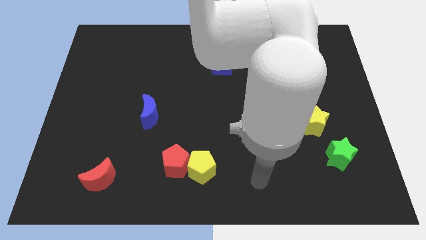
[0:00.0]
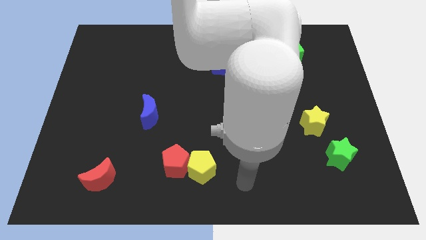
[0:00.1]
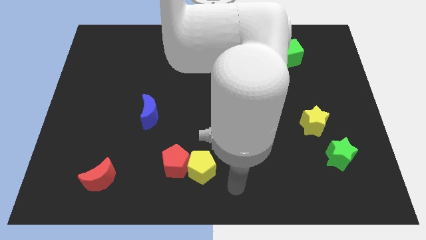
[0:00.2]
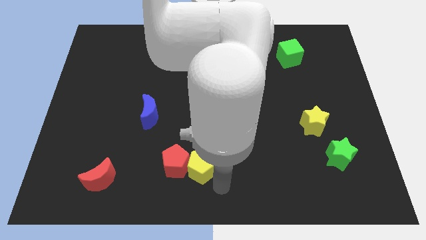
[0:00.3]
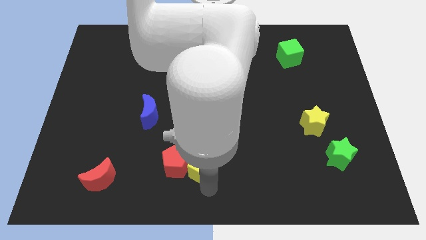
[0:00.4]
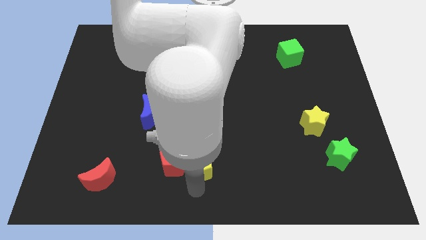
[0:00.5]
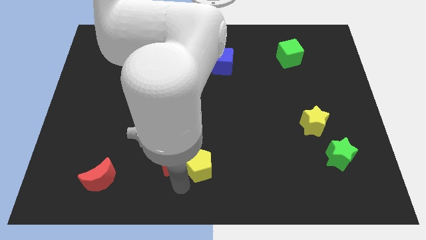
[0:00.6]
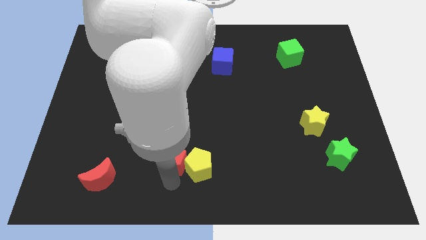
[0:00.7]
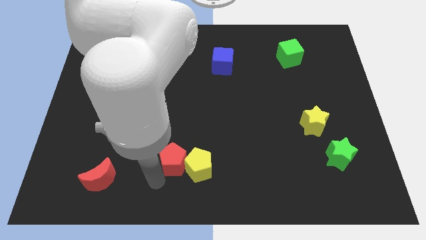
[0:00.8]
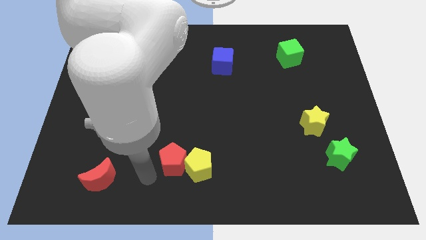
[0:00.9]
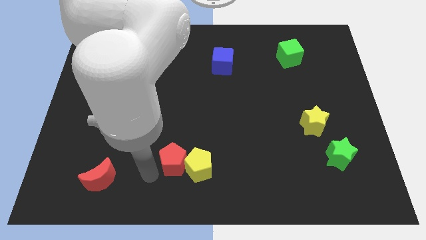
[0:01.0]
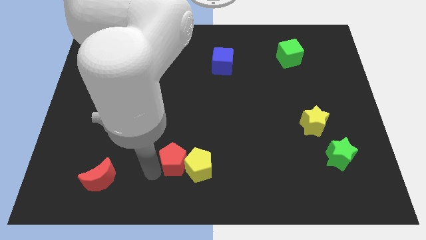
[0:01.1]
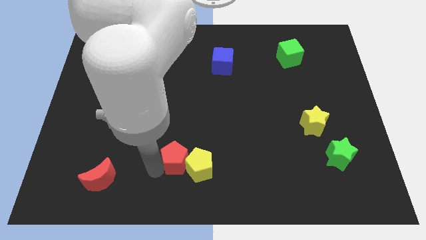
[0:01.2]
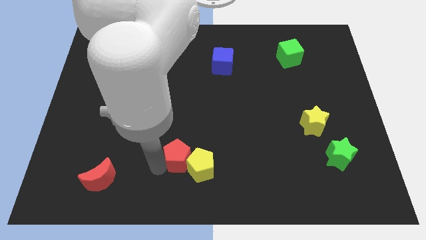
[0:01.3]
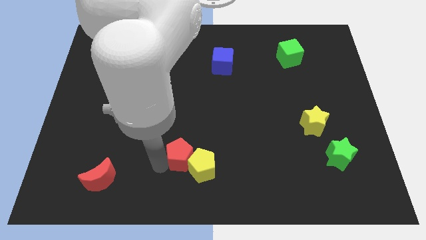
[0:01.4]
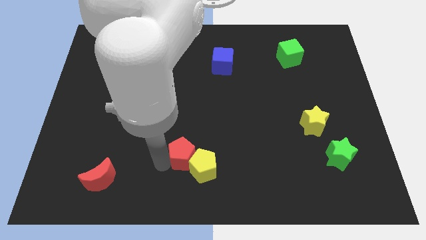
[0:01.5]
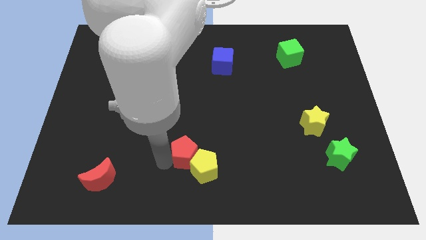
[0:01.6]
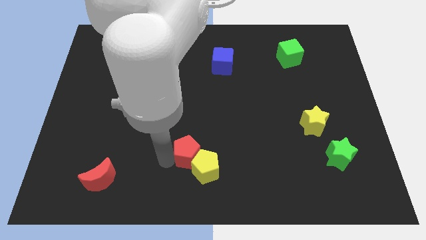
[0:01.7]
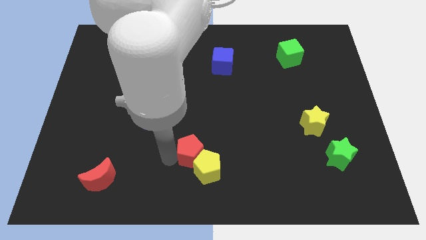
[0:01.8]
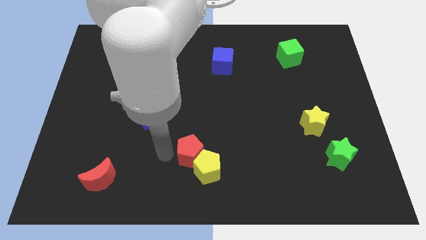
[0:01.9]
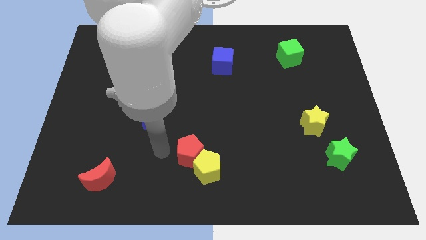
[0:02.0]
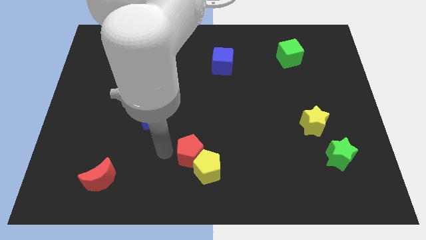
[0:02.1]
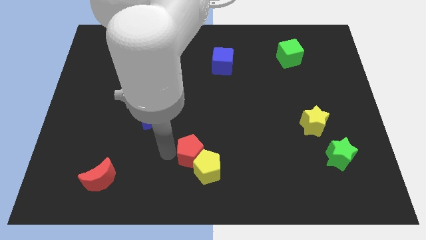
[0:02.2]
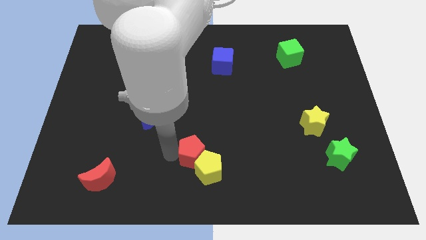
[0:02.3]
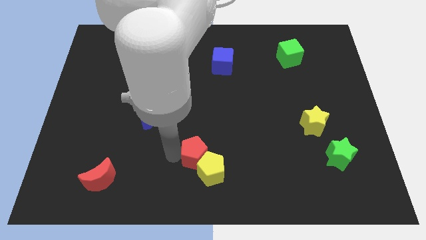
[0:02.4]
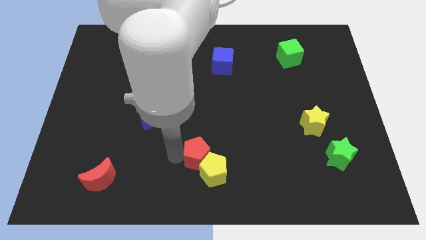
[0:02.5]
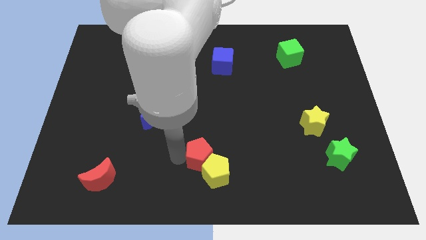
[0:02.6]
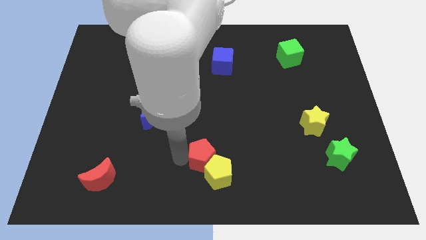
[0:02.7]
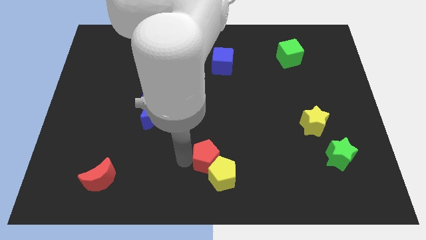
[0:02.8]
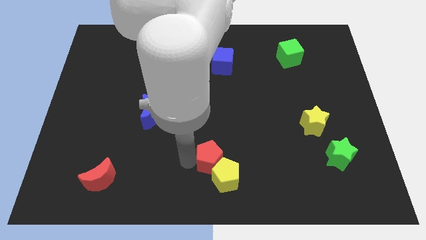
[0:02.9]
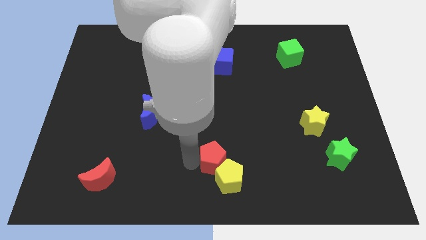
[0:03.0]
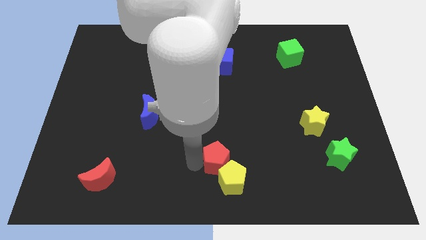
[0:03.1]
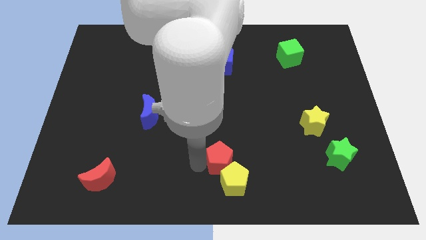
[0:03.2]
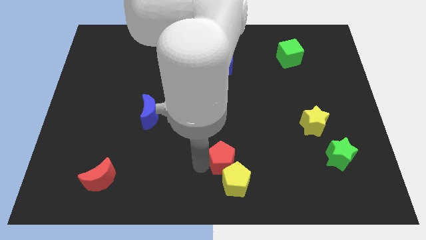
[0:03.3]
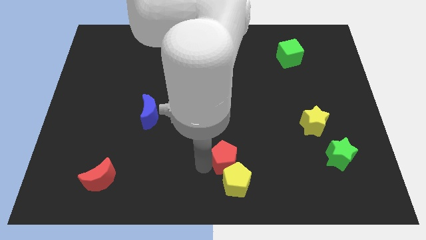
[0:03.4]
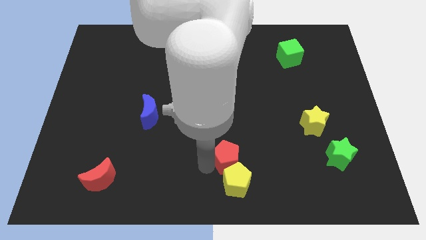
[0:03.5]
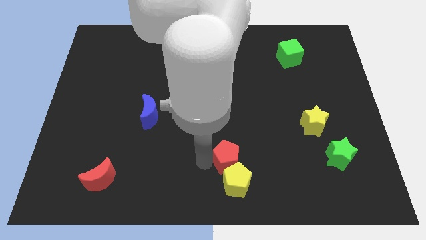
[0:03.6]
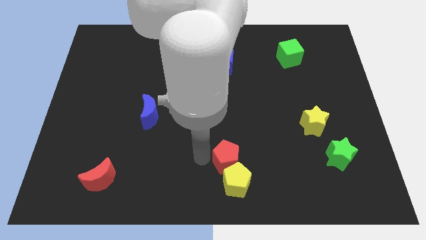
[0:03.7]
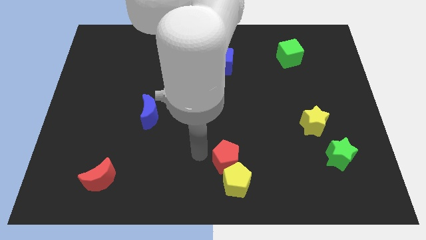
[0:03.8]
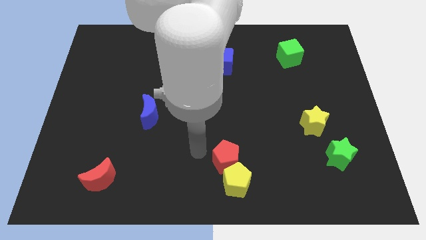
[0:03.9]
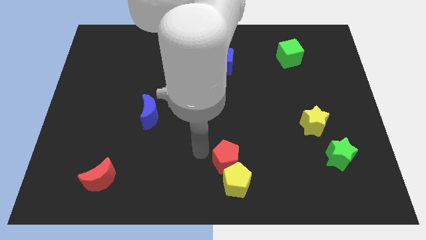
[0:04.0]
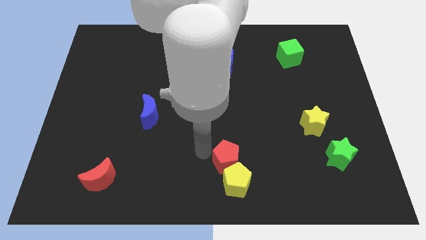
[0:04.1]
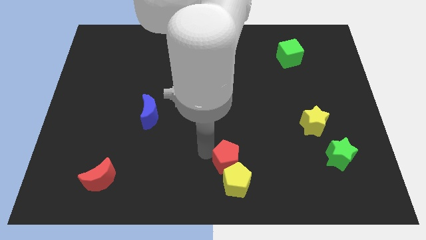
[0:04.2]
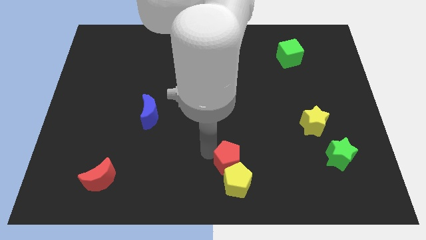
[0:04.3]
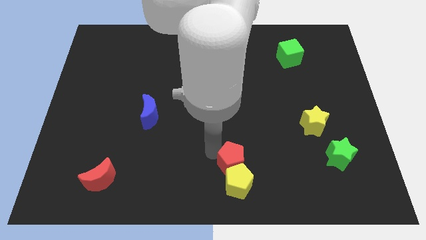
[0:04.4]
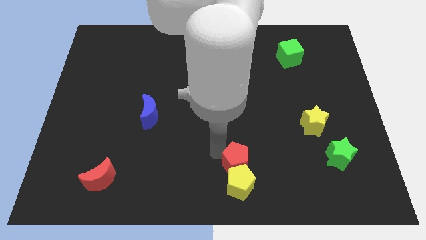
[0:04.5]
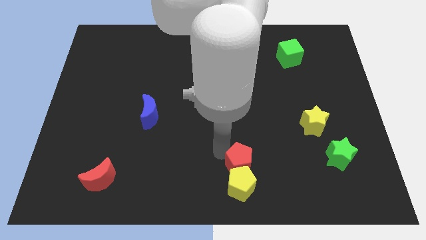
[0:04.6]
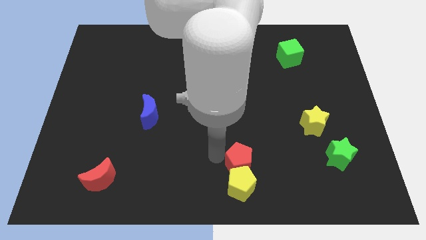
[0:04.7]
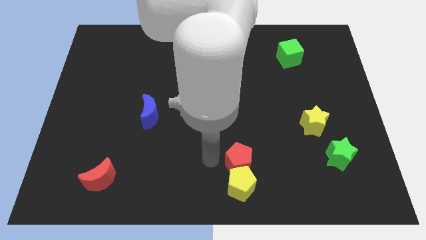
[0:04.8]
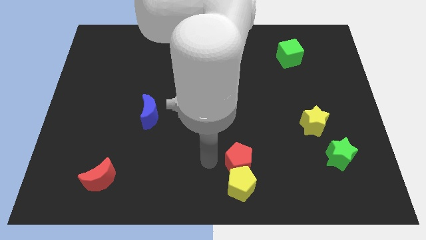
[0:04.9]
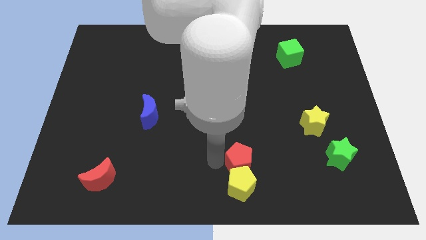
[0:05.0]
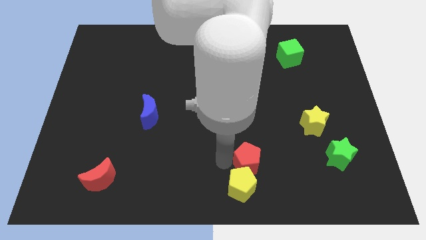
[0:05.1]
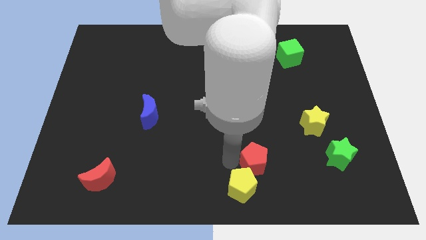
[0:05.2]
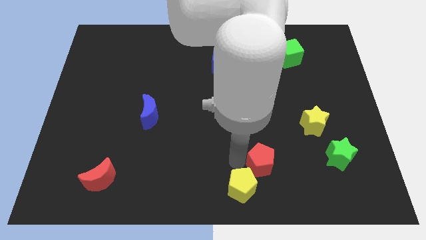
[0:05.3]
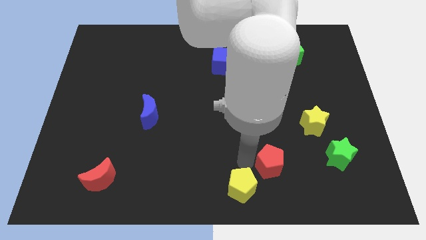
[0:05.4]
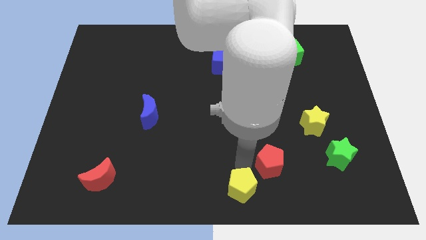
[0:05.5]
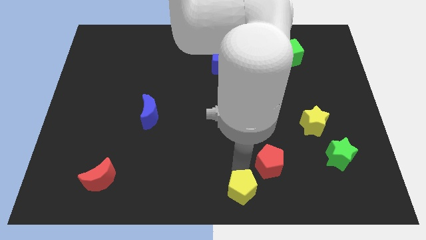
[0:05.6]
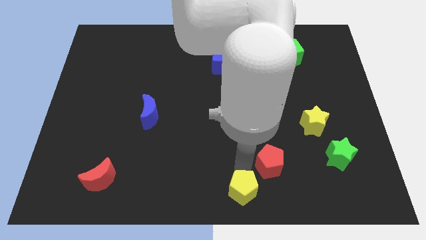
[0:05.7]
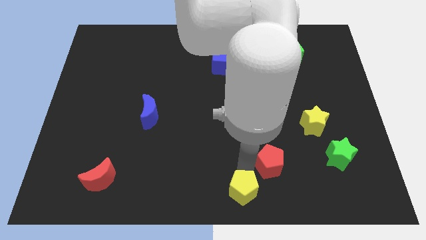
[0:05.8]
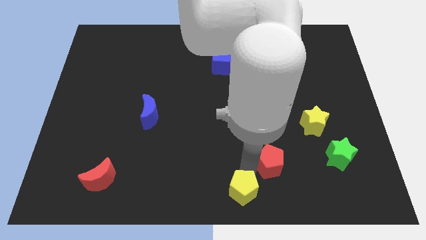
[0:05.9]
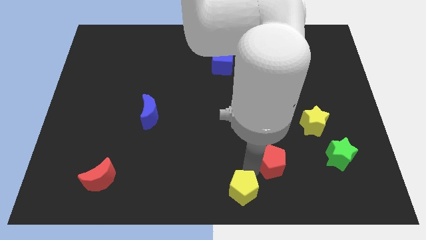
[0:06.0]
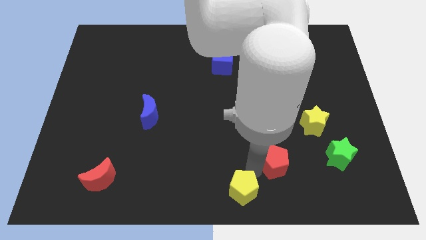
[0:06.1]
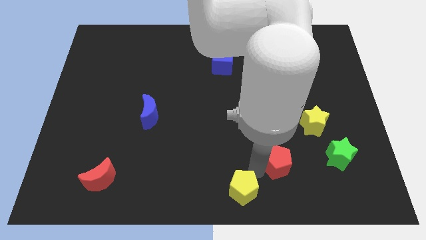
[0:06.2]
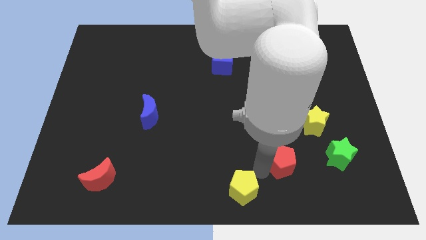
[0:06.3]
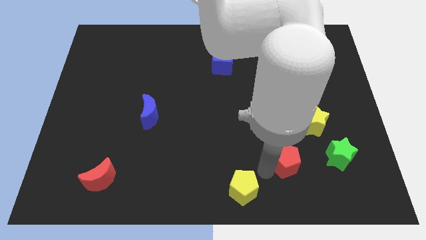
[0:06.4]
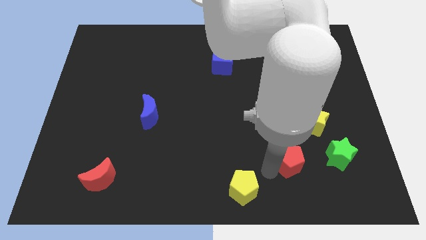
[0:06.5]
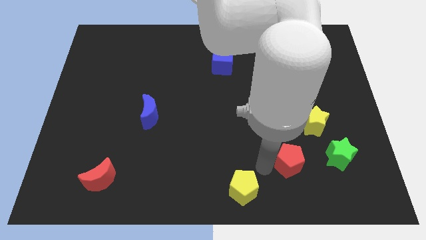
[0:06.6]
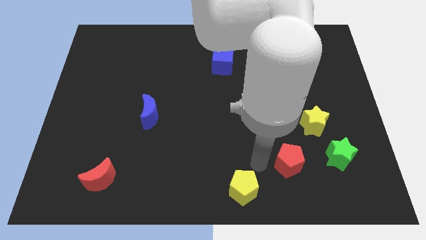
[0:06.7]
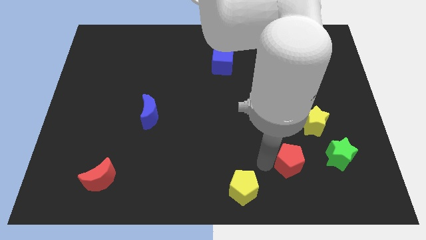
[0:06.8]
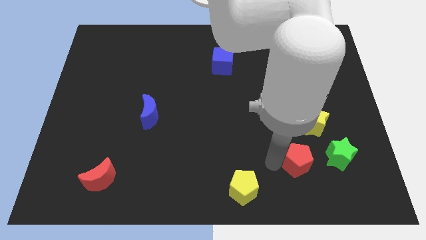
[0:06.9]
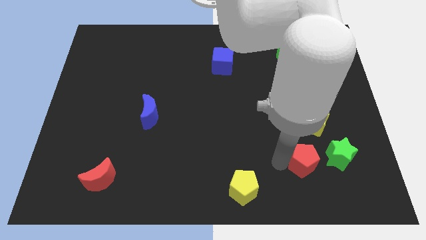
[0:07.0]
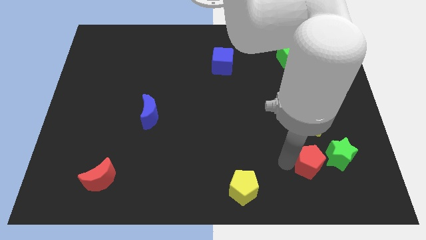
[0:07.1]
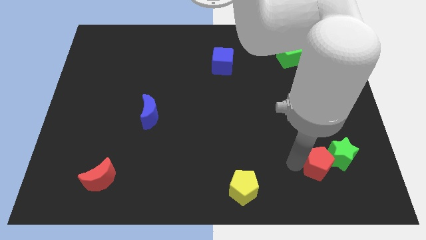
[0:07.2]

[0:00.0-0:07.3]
put the red pentagon next to the green star
